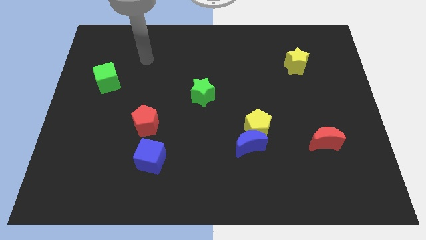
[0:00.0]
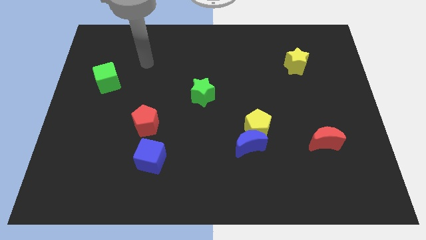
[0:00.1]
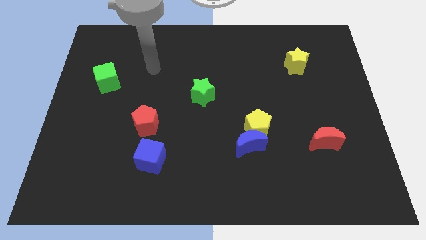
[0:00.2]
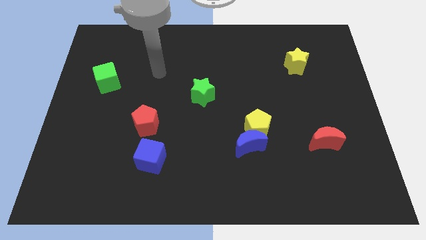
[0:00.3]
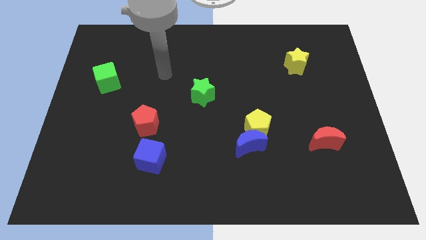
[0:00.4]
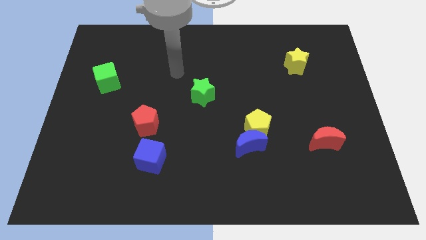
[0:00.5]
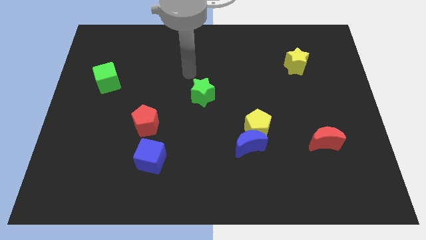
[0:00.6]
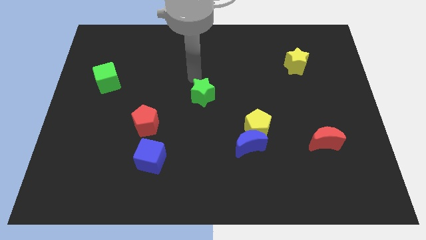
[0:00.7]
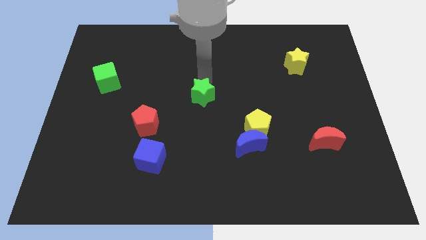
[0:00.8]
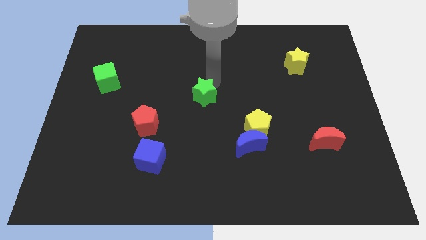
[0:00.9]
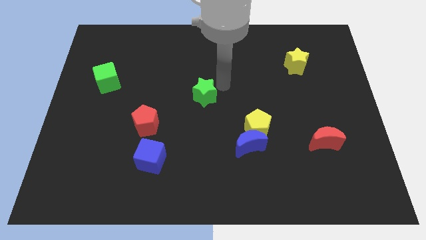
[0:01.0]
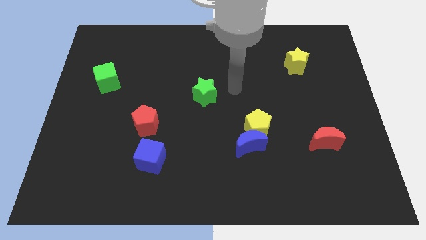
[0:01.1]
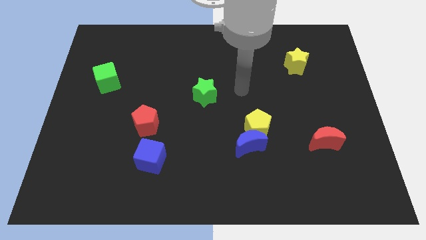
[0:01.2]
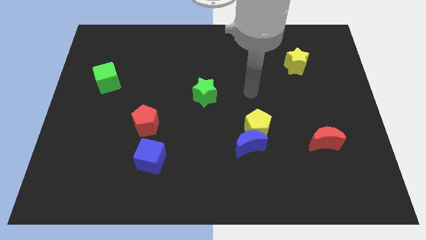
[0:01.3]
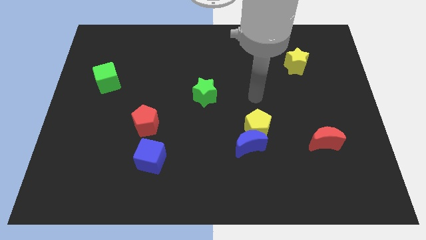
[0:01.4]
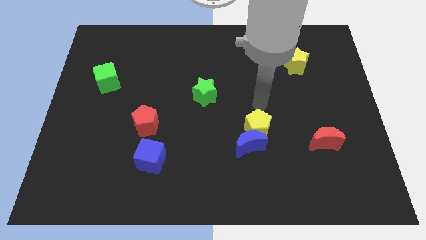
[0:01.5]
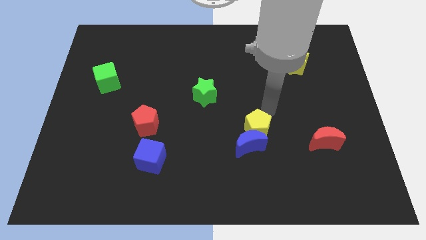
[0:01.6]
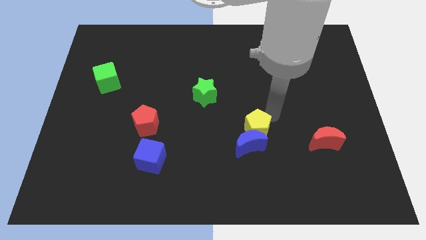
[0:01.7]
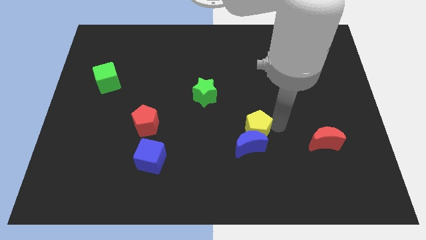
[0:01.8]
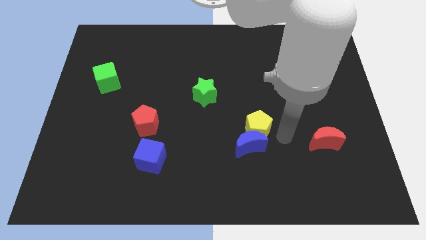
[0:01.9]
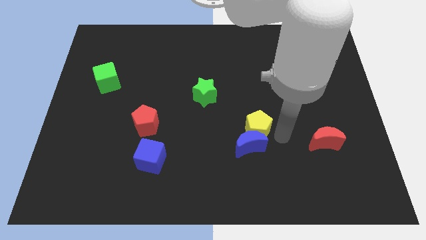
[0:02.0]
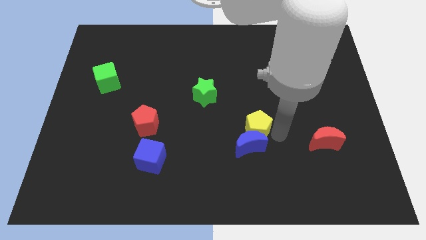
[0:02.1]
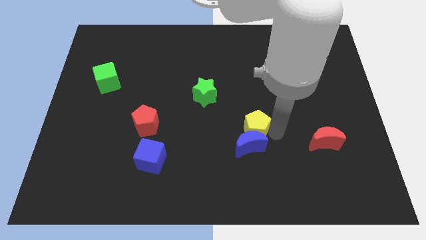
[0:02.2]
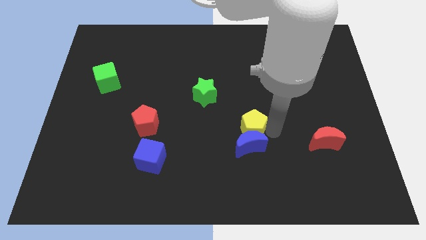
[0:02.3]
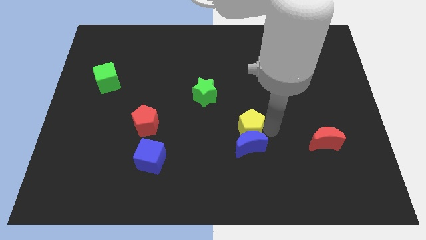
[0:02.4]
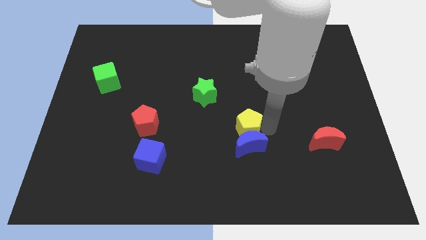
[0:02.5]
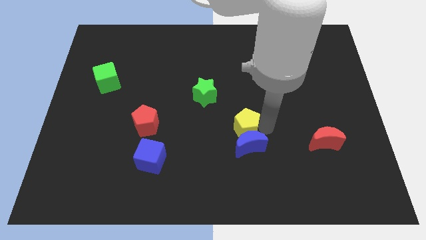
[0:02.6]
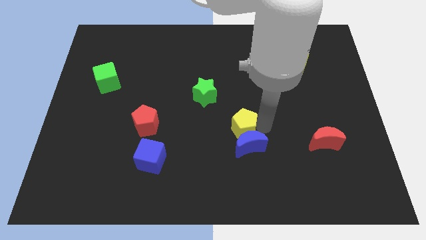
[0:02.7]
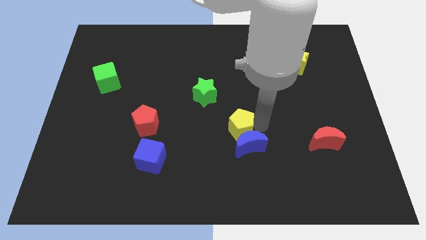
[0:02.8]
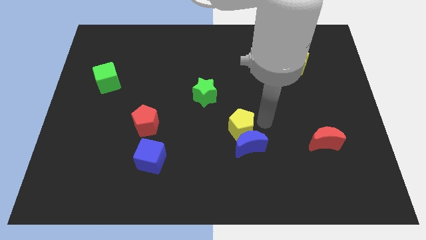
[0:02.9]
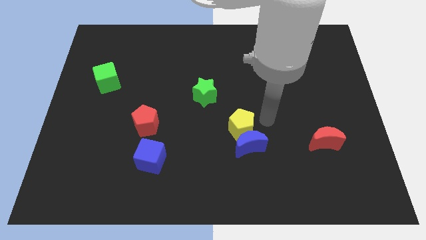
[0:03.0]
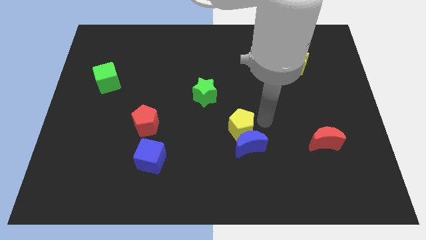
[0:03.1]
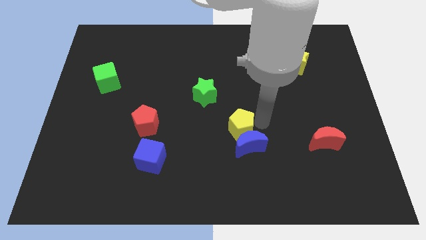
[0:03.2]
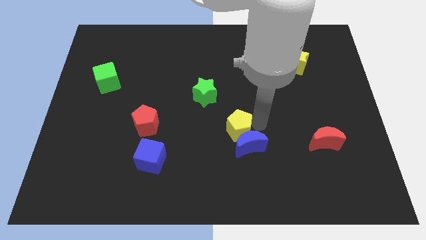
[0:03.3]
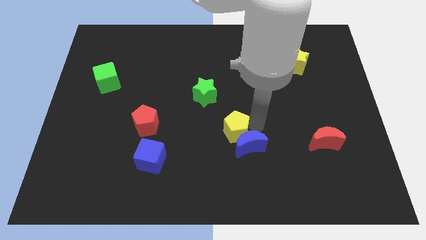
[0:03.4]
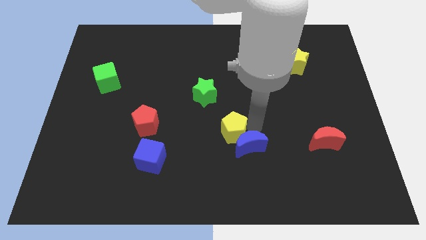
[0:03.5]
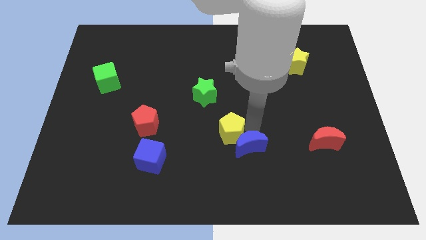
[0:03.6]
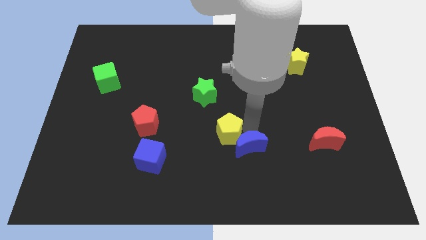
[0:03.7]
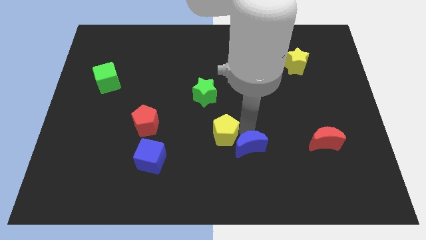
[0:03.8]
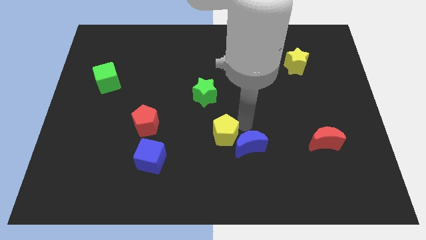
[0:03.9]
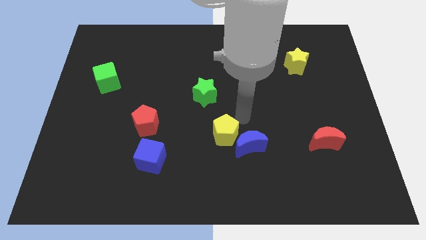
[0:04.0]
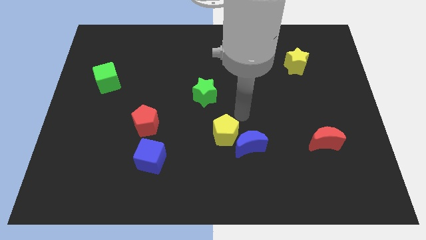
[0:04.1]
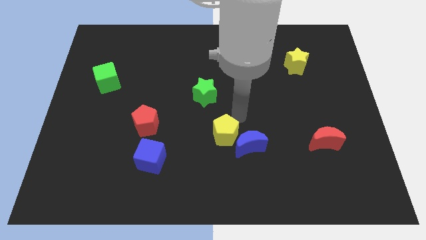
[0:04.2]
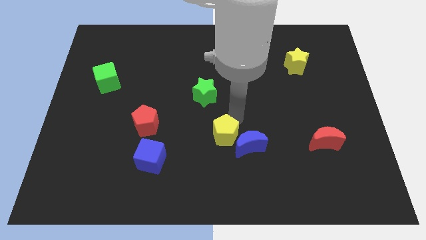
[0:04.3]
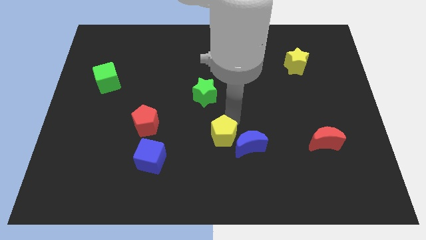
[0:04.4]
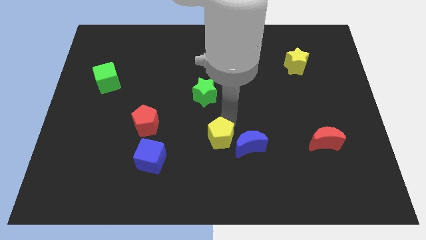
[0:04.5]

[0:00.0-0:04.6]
push the yellow pentagon down and then to the left a bit

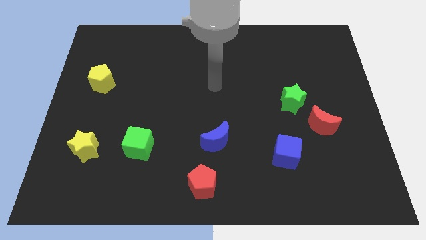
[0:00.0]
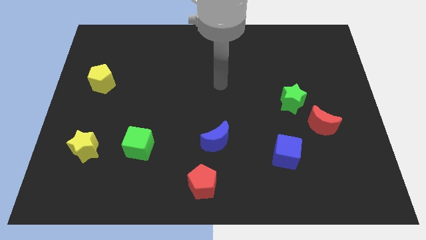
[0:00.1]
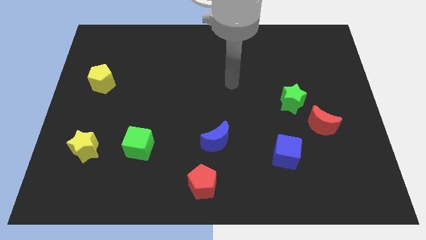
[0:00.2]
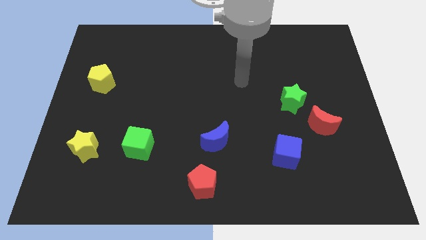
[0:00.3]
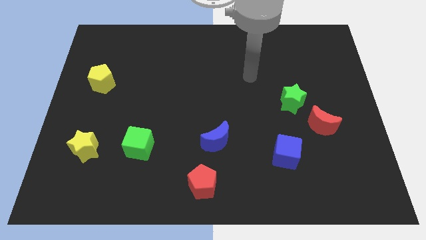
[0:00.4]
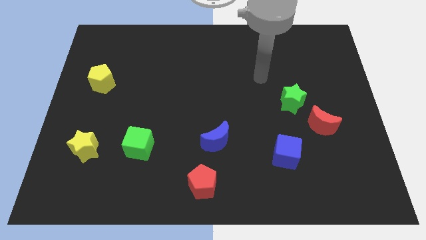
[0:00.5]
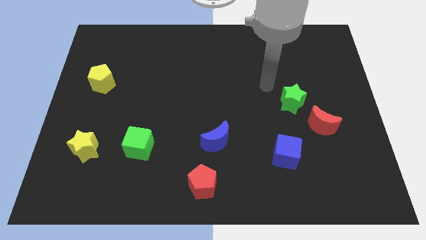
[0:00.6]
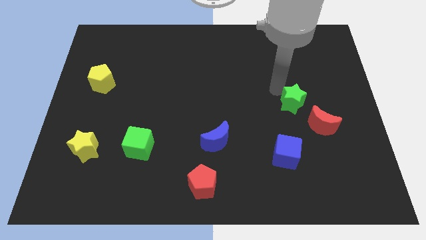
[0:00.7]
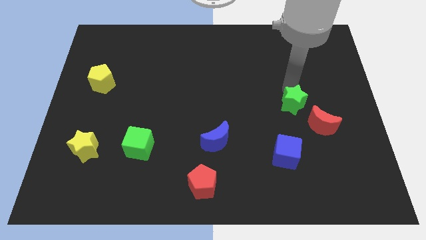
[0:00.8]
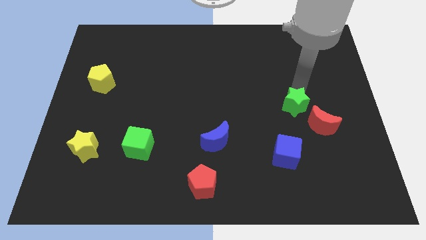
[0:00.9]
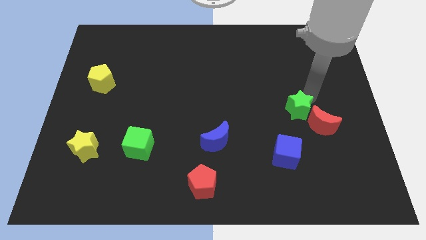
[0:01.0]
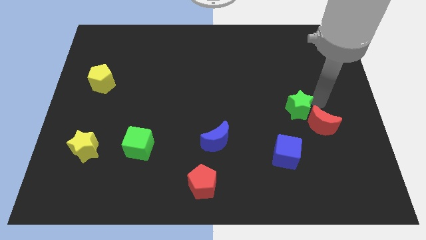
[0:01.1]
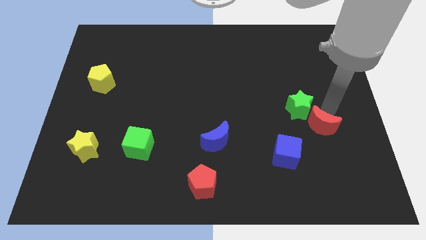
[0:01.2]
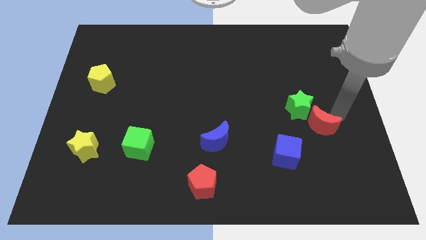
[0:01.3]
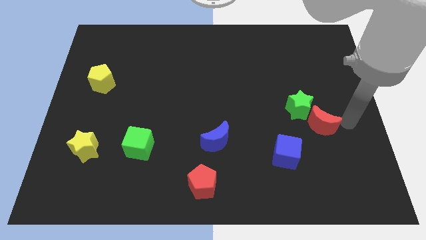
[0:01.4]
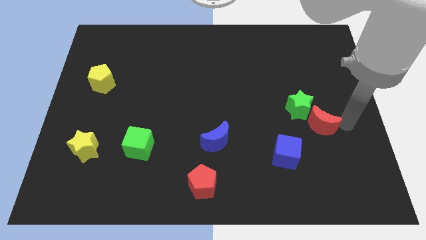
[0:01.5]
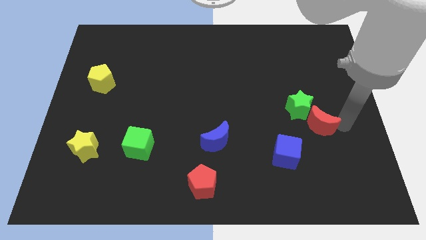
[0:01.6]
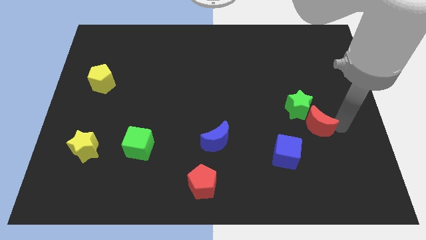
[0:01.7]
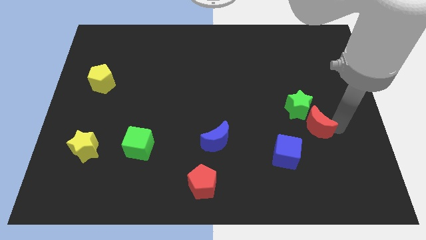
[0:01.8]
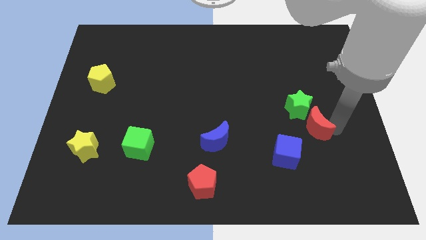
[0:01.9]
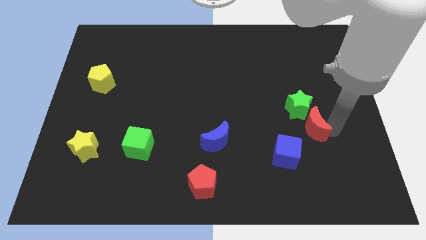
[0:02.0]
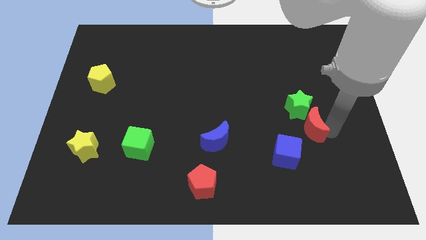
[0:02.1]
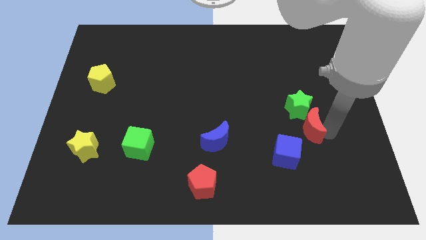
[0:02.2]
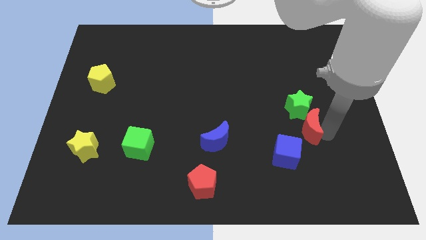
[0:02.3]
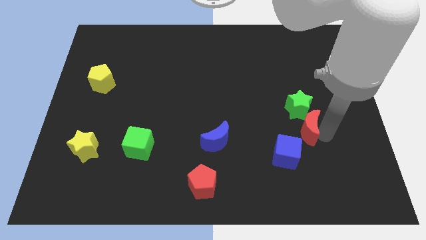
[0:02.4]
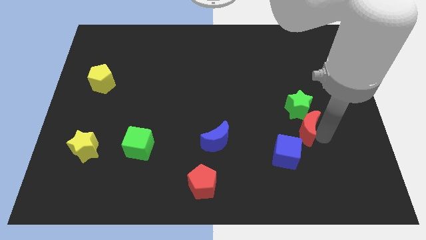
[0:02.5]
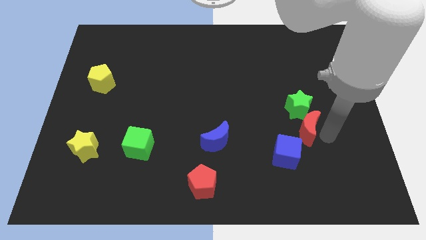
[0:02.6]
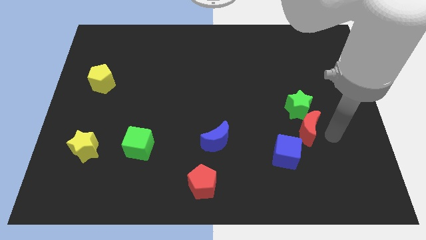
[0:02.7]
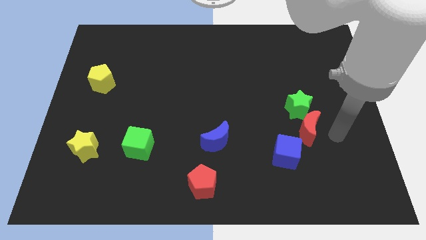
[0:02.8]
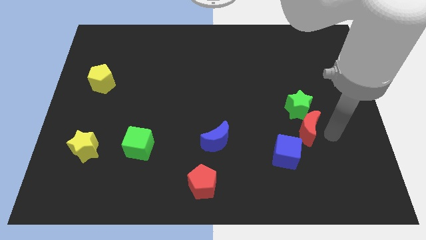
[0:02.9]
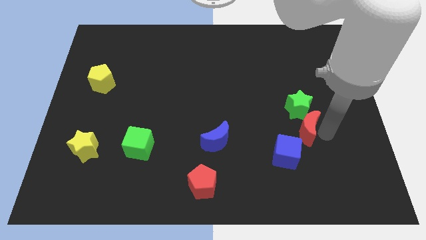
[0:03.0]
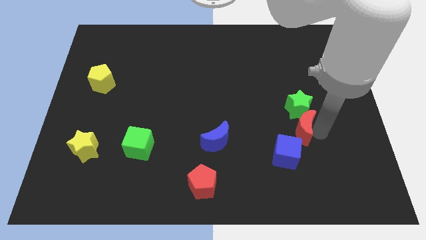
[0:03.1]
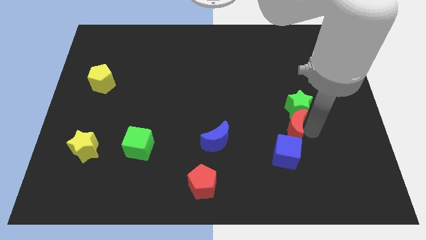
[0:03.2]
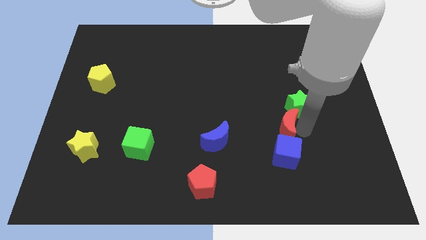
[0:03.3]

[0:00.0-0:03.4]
slide the red moon to the left a little bit

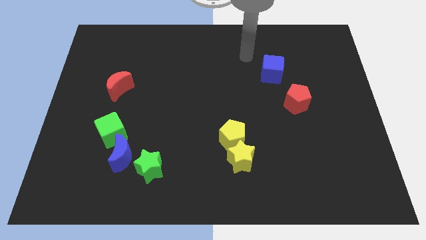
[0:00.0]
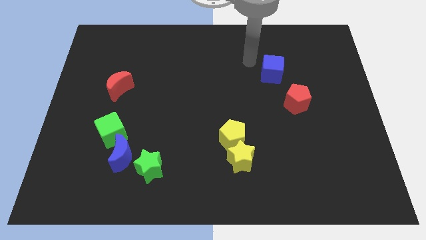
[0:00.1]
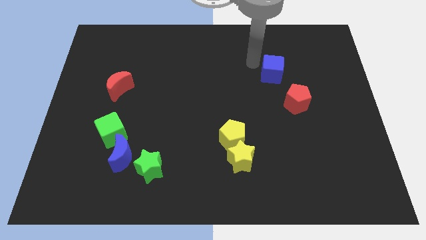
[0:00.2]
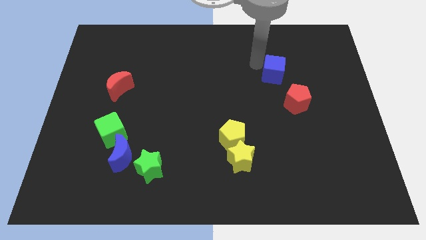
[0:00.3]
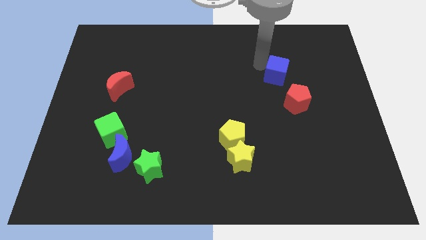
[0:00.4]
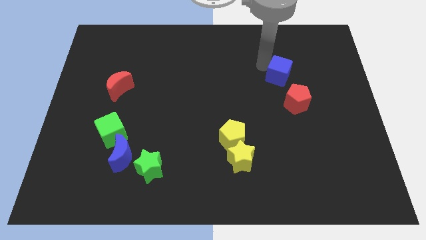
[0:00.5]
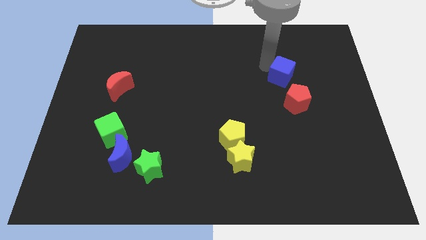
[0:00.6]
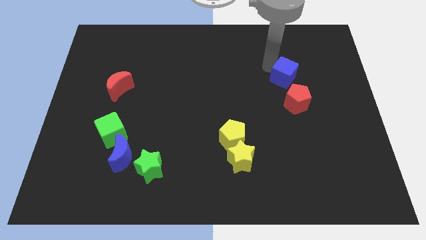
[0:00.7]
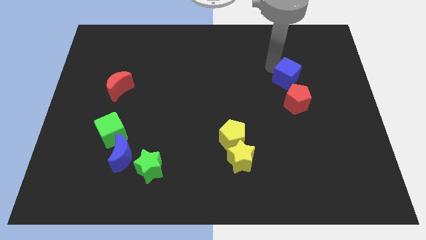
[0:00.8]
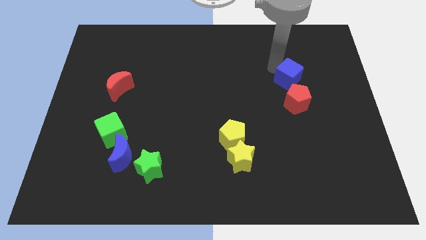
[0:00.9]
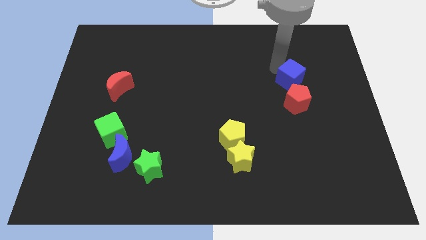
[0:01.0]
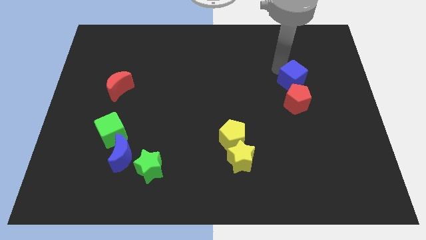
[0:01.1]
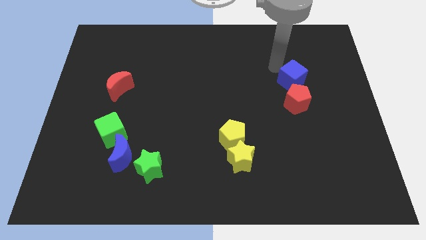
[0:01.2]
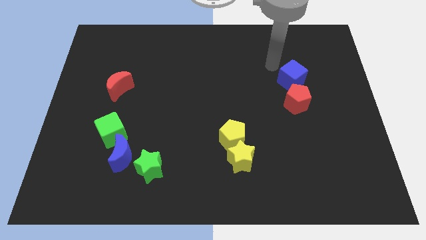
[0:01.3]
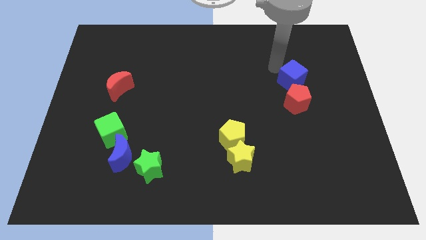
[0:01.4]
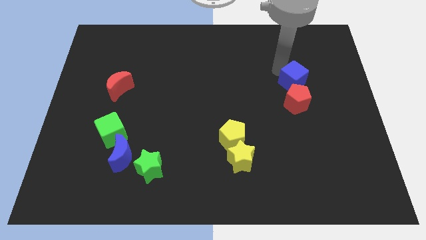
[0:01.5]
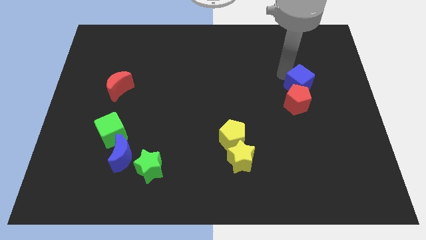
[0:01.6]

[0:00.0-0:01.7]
slide the blue cube down and then right a little bit
